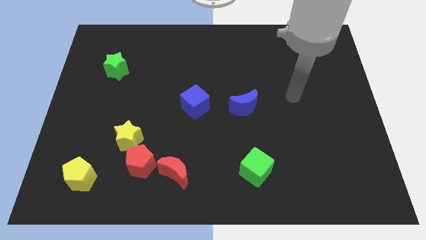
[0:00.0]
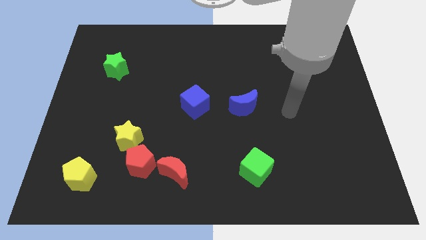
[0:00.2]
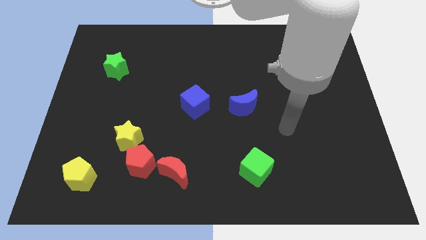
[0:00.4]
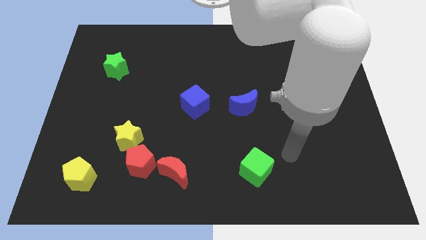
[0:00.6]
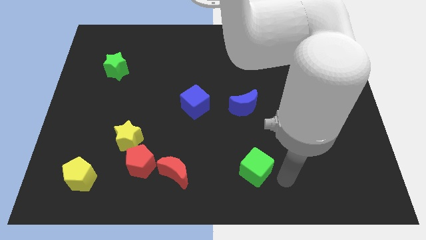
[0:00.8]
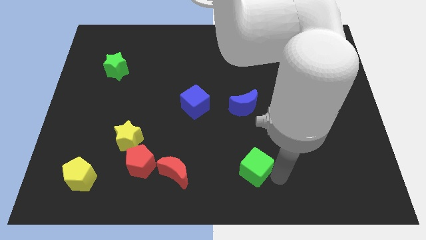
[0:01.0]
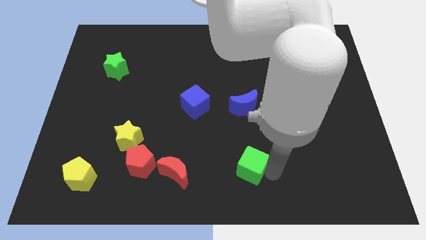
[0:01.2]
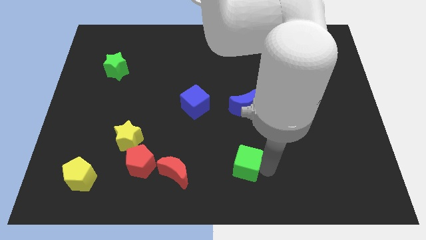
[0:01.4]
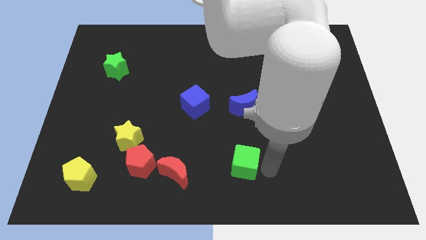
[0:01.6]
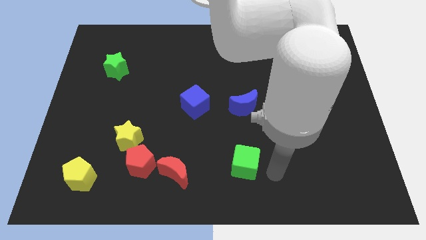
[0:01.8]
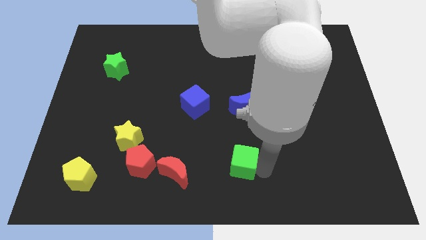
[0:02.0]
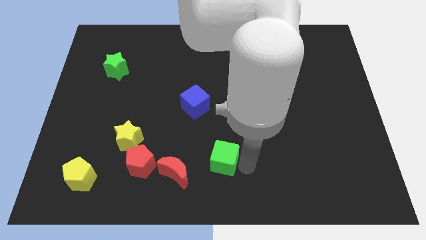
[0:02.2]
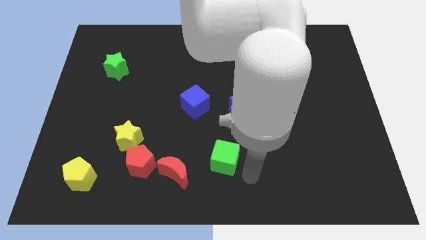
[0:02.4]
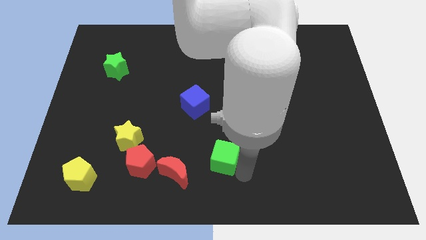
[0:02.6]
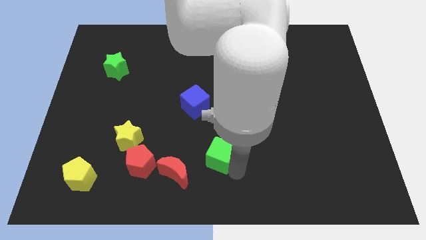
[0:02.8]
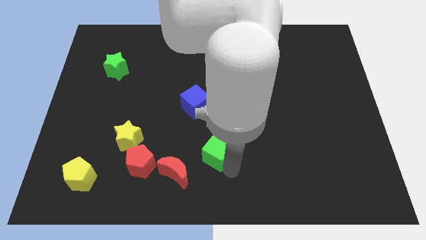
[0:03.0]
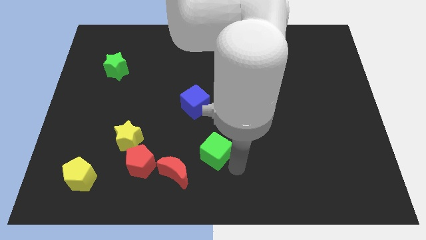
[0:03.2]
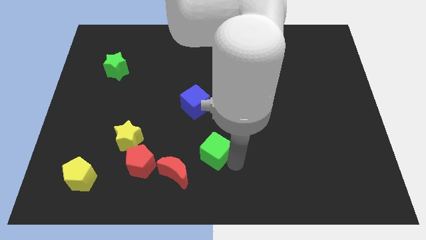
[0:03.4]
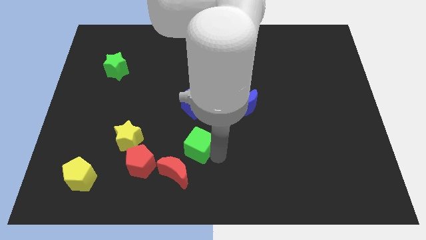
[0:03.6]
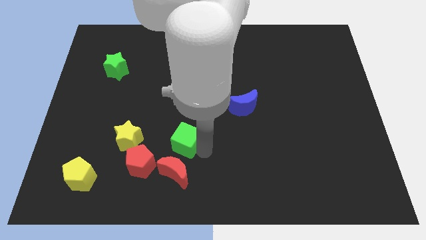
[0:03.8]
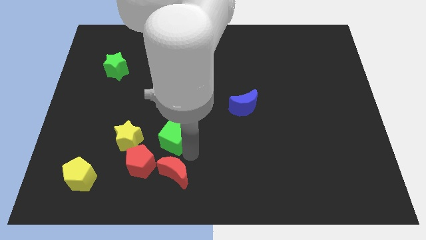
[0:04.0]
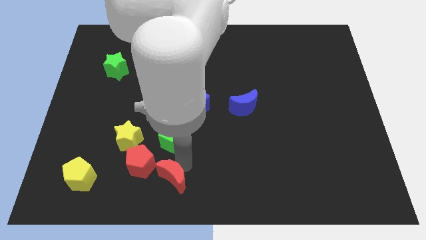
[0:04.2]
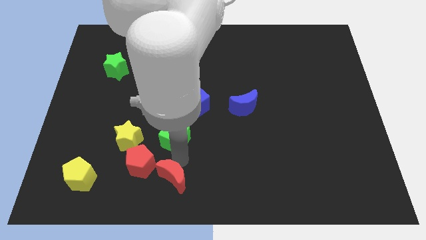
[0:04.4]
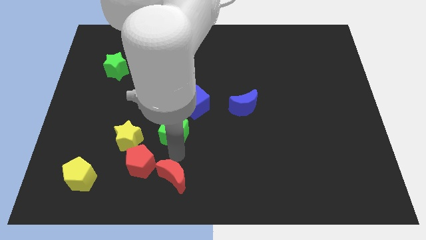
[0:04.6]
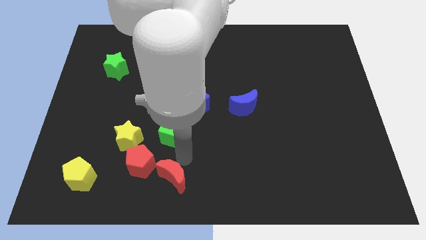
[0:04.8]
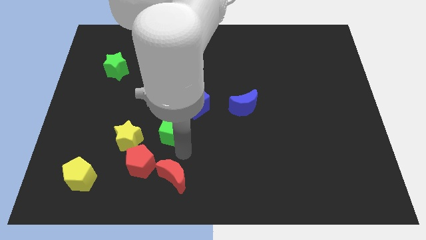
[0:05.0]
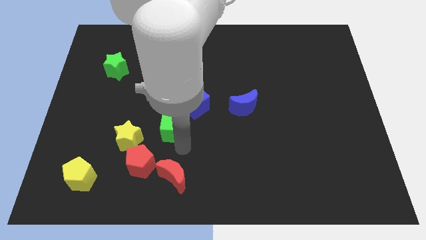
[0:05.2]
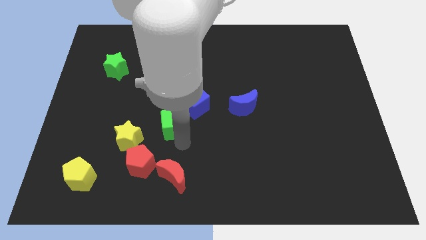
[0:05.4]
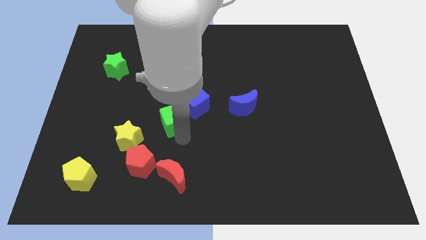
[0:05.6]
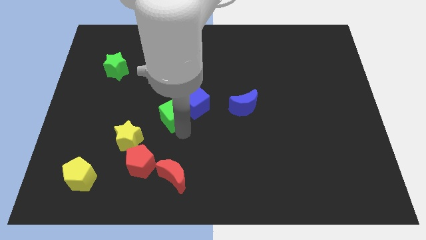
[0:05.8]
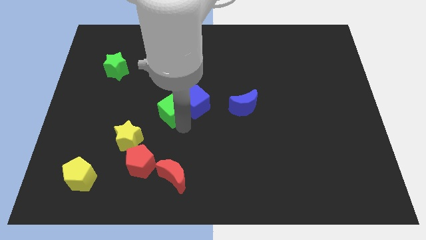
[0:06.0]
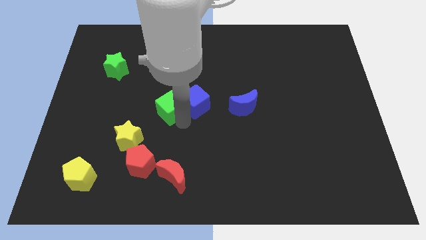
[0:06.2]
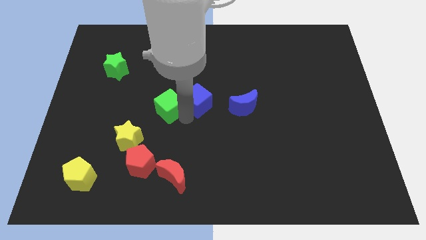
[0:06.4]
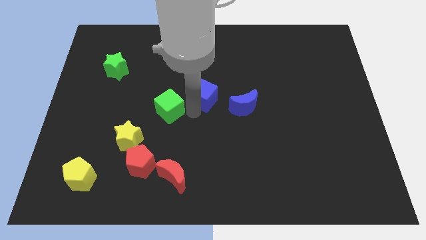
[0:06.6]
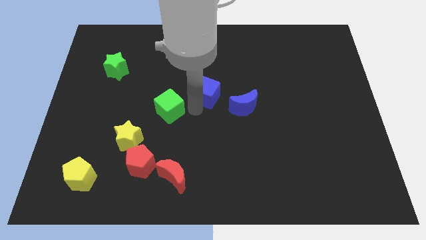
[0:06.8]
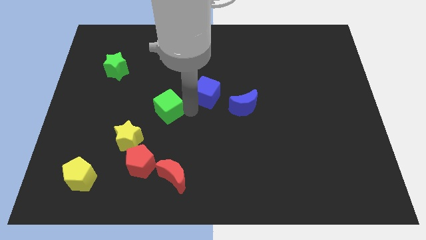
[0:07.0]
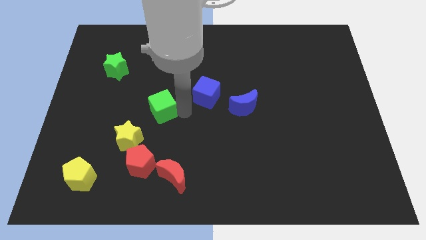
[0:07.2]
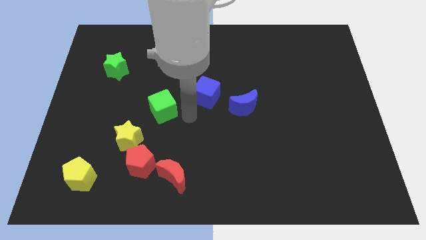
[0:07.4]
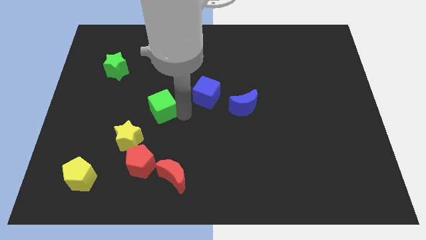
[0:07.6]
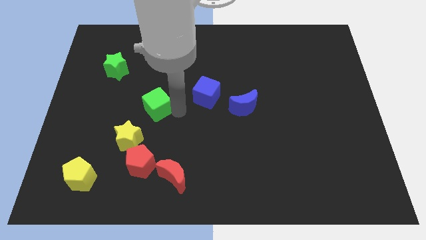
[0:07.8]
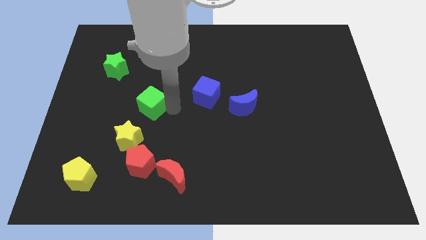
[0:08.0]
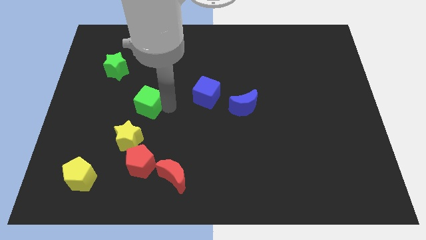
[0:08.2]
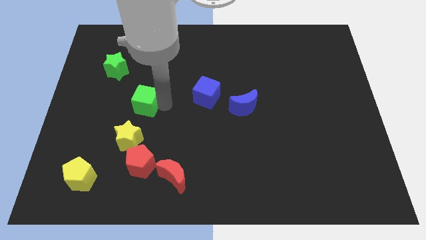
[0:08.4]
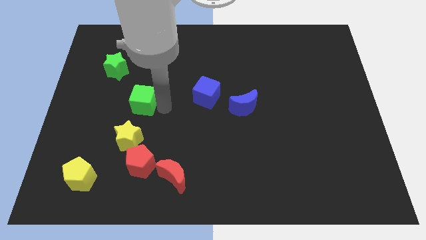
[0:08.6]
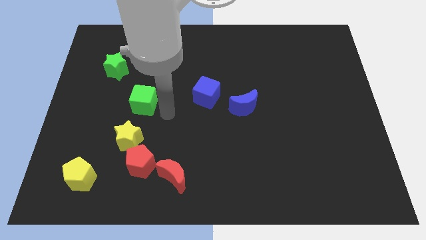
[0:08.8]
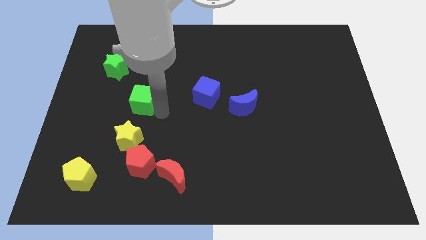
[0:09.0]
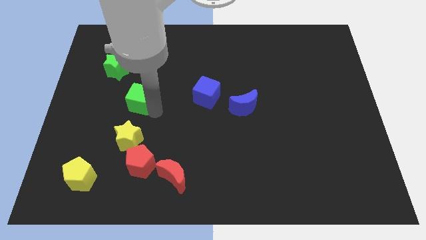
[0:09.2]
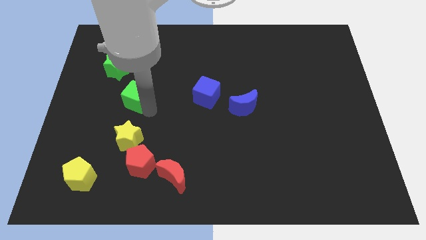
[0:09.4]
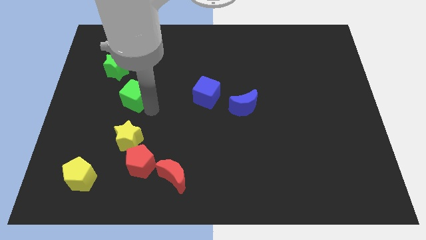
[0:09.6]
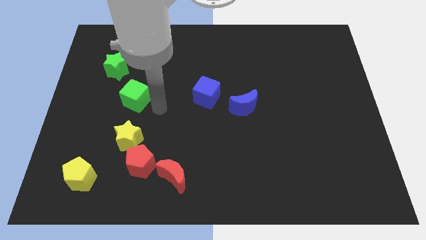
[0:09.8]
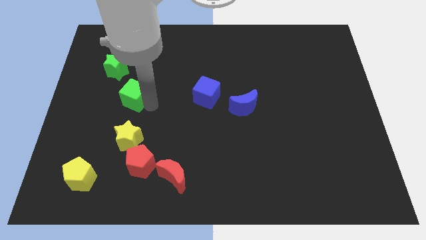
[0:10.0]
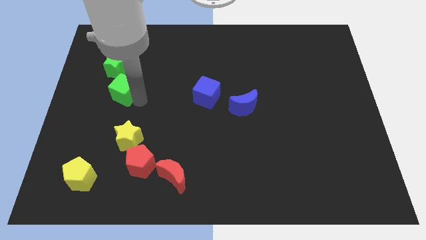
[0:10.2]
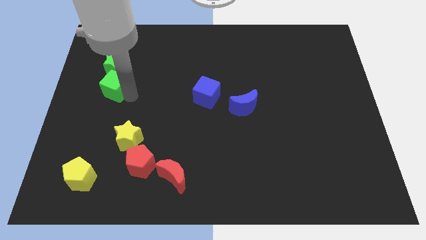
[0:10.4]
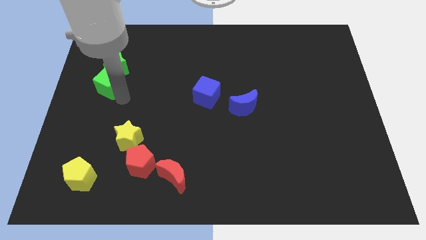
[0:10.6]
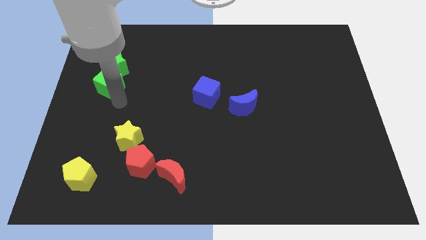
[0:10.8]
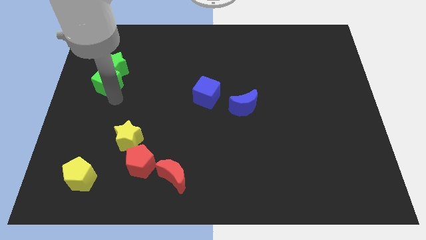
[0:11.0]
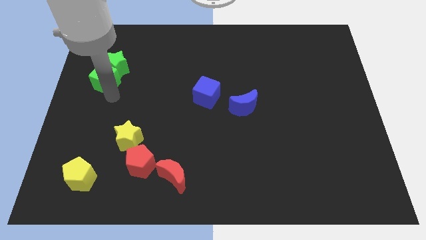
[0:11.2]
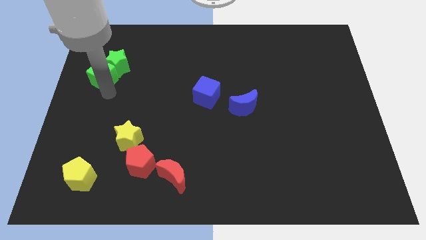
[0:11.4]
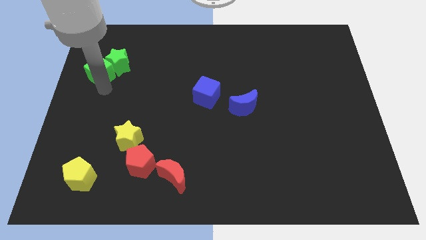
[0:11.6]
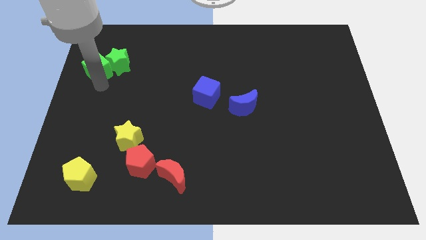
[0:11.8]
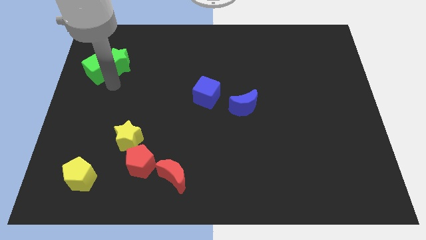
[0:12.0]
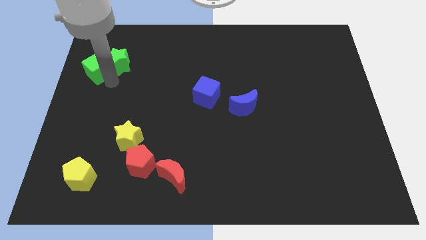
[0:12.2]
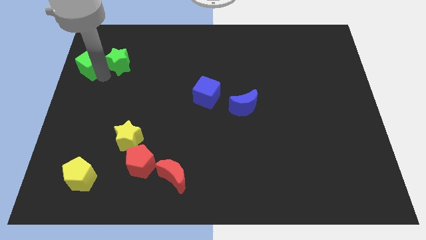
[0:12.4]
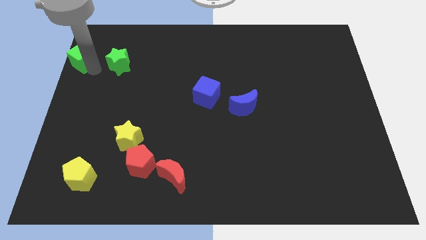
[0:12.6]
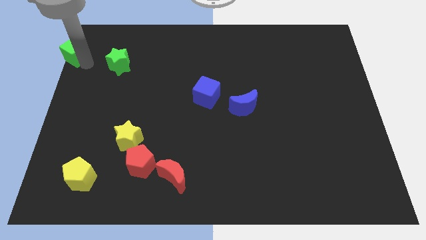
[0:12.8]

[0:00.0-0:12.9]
push the green cube to the top left

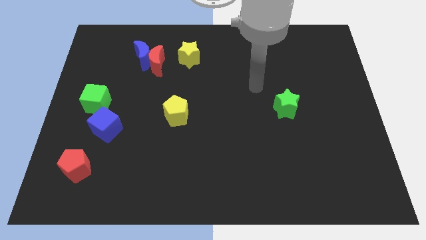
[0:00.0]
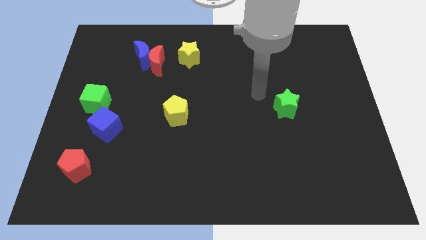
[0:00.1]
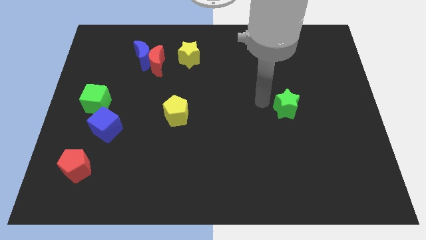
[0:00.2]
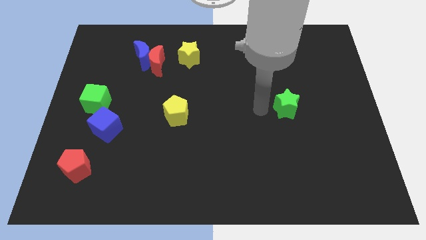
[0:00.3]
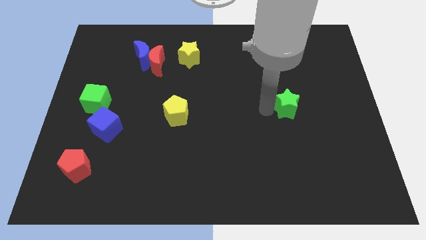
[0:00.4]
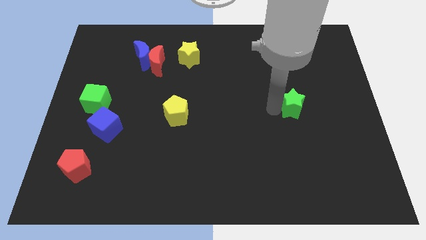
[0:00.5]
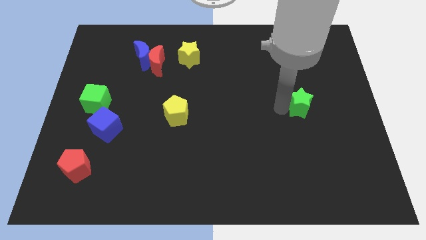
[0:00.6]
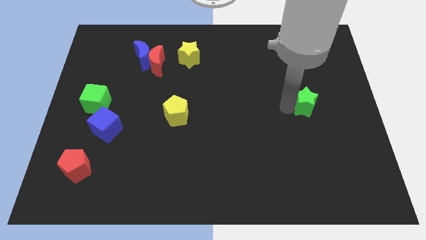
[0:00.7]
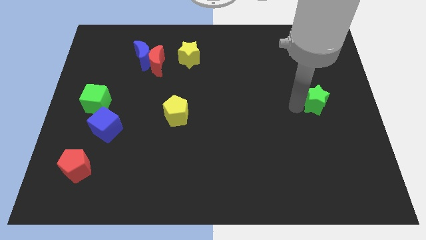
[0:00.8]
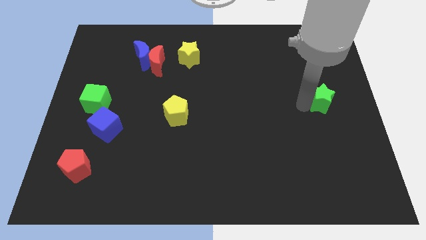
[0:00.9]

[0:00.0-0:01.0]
slide the green star to the center right
